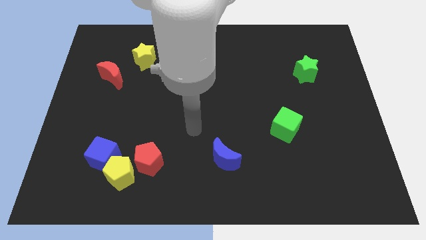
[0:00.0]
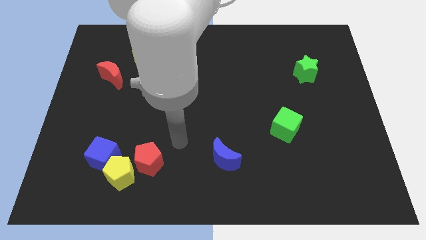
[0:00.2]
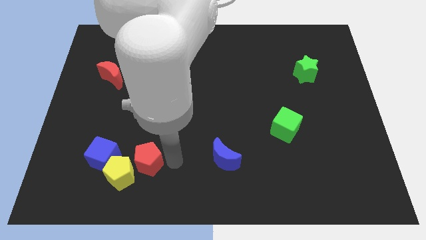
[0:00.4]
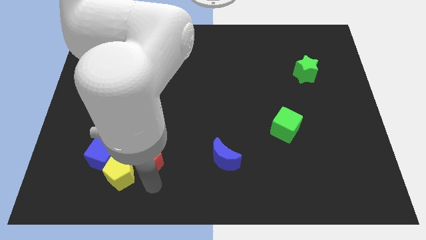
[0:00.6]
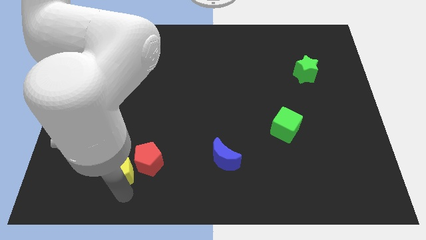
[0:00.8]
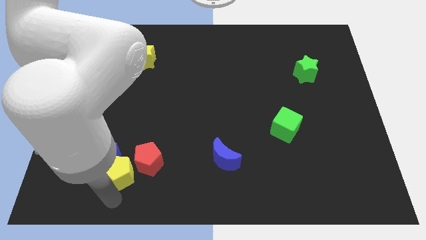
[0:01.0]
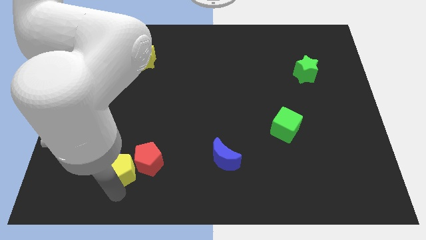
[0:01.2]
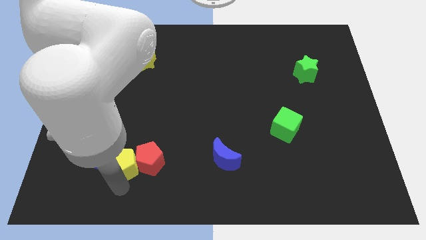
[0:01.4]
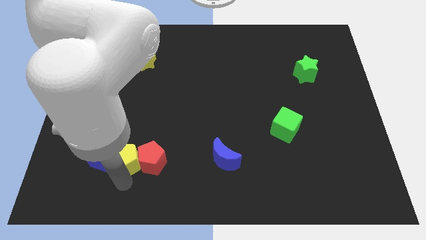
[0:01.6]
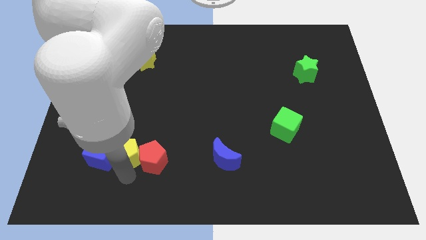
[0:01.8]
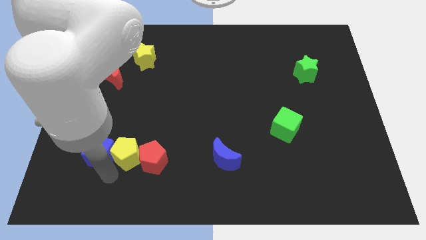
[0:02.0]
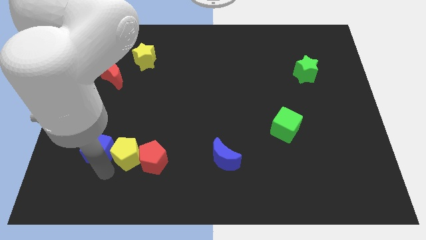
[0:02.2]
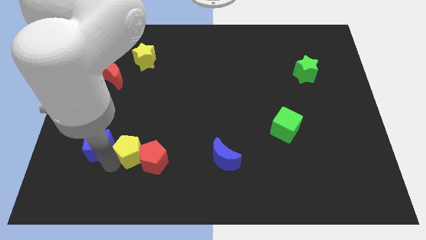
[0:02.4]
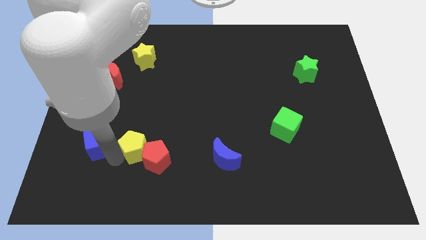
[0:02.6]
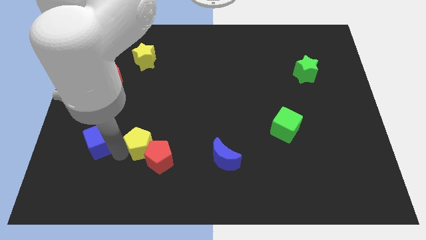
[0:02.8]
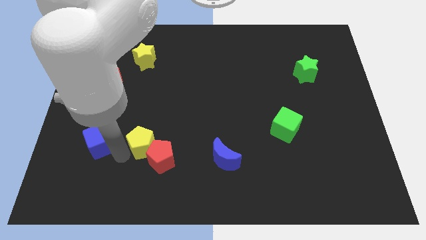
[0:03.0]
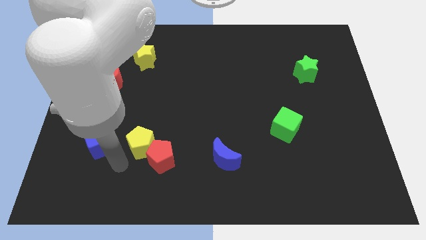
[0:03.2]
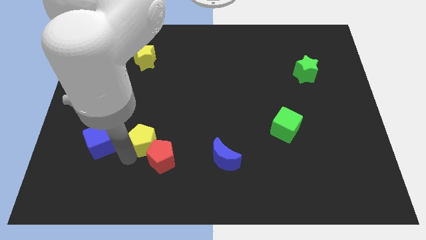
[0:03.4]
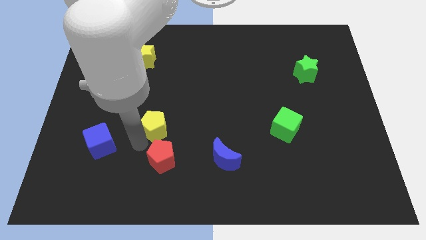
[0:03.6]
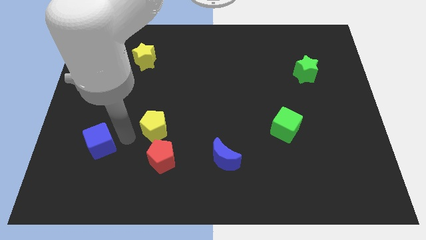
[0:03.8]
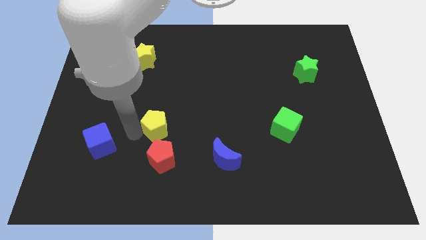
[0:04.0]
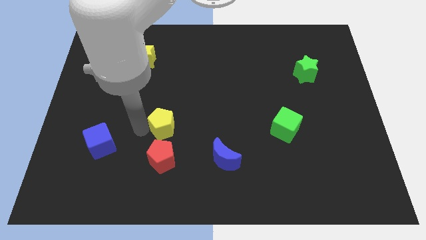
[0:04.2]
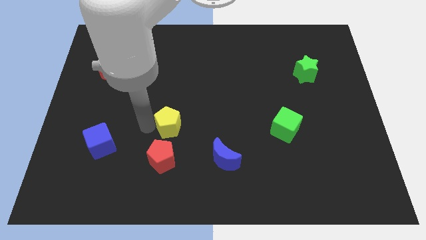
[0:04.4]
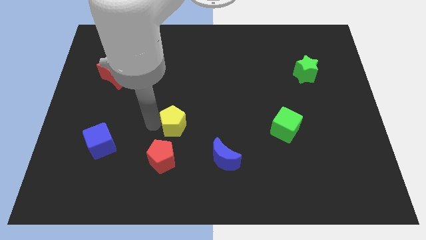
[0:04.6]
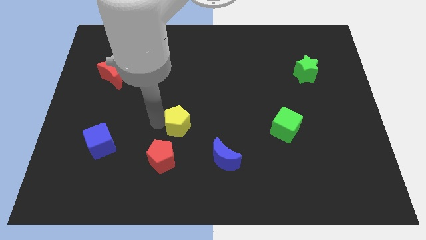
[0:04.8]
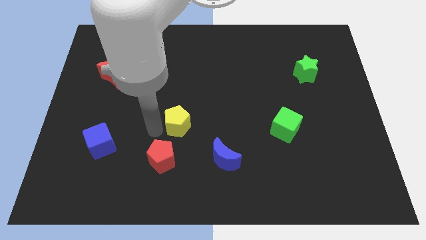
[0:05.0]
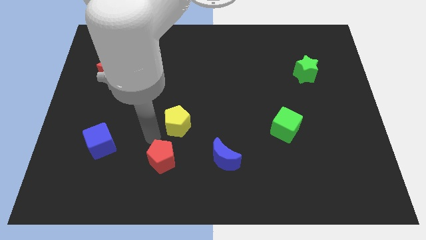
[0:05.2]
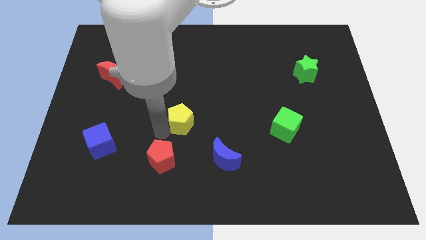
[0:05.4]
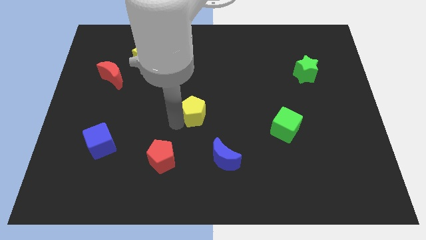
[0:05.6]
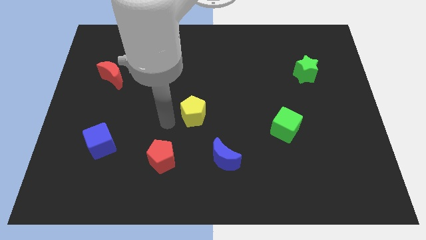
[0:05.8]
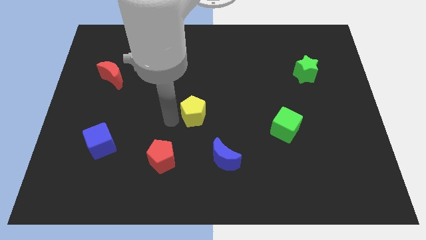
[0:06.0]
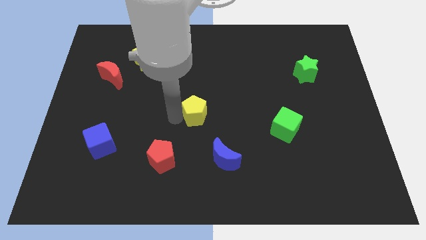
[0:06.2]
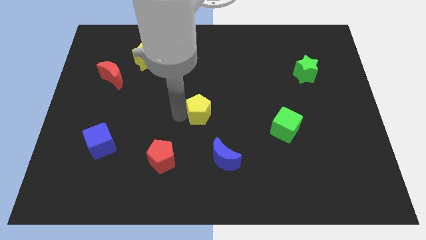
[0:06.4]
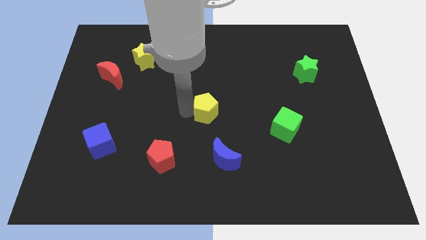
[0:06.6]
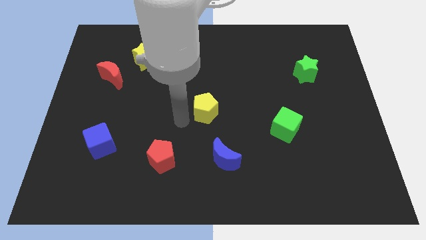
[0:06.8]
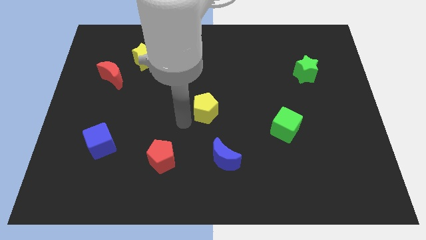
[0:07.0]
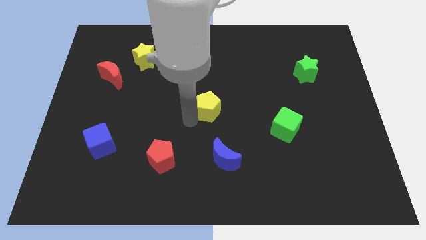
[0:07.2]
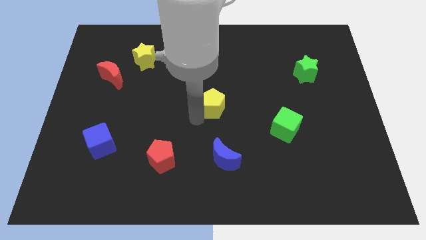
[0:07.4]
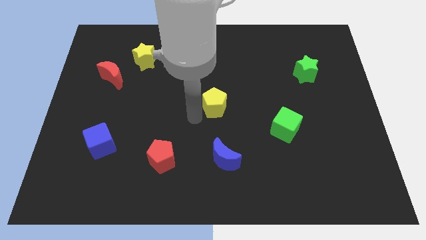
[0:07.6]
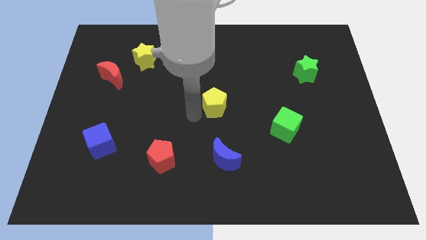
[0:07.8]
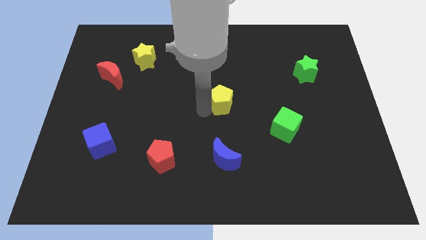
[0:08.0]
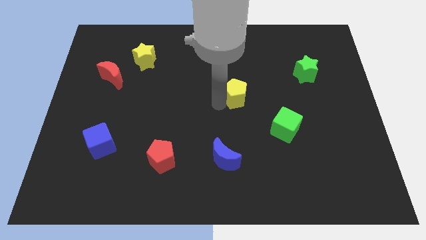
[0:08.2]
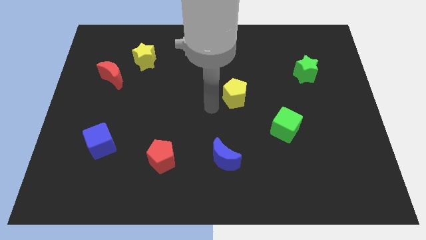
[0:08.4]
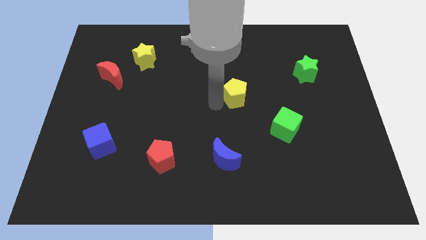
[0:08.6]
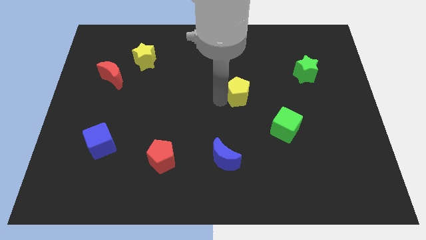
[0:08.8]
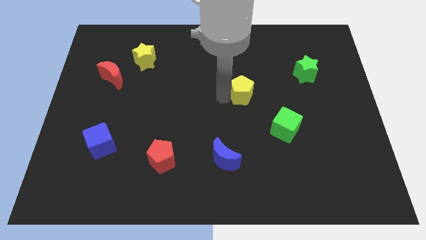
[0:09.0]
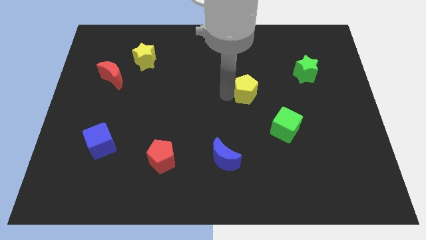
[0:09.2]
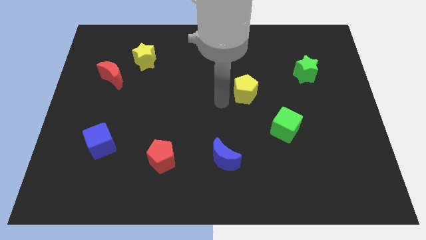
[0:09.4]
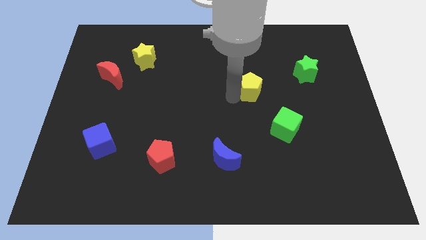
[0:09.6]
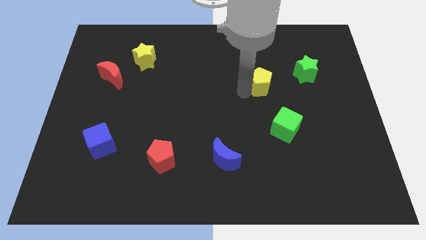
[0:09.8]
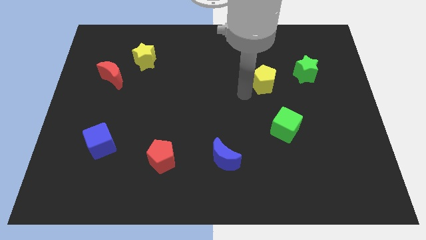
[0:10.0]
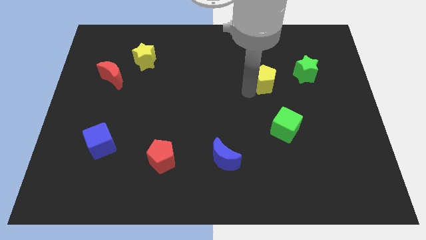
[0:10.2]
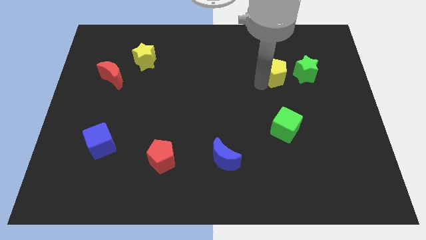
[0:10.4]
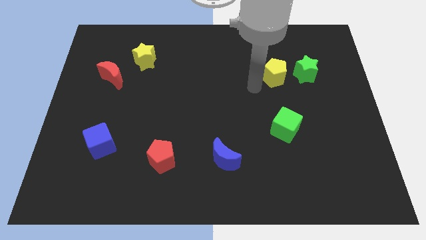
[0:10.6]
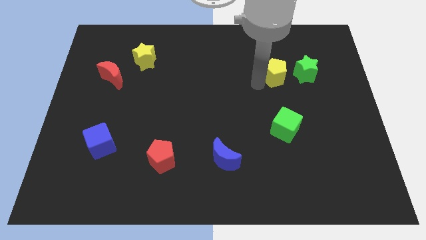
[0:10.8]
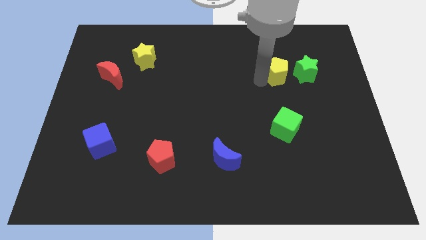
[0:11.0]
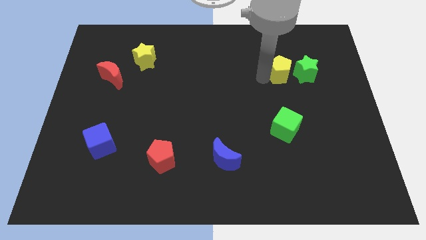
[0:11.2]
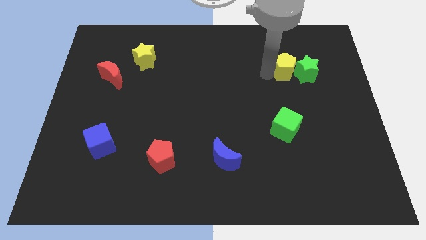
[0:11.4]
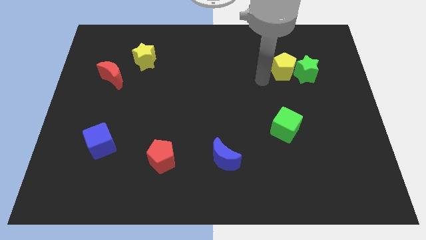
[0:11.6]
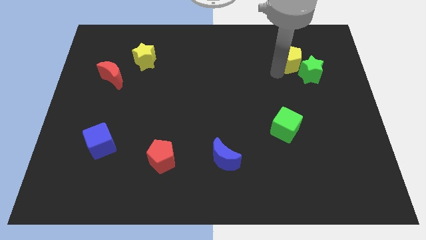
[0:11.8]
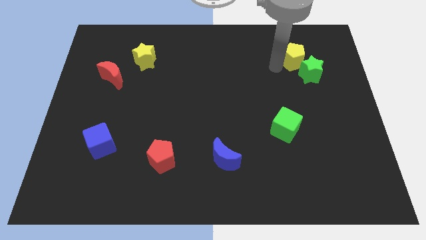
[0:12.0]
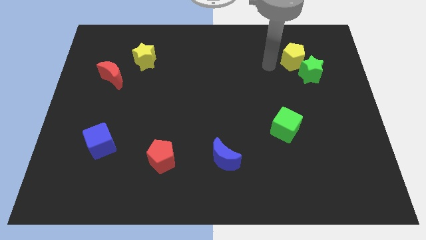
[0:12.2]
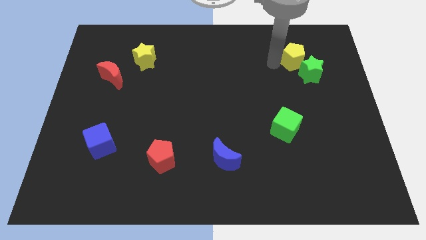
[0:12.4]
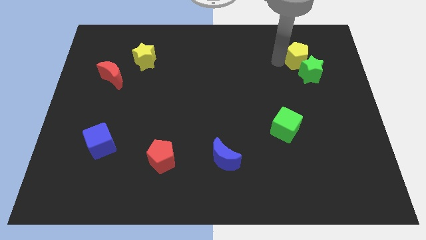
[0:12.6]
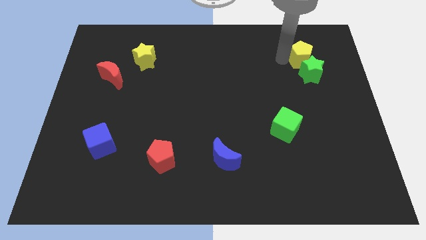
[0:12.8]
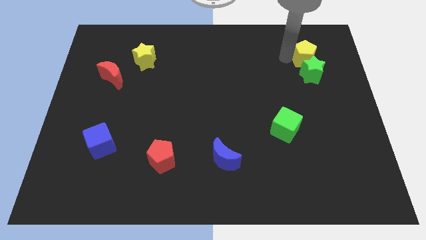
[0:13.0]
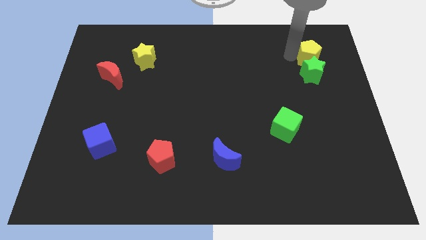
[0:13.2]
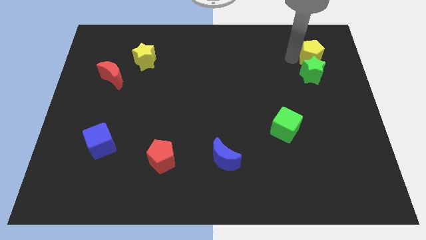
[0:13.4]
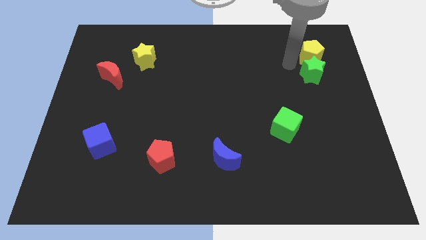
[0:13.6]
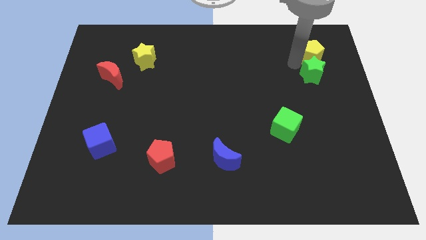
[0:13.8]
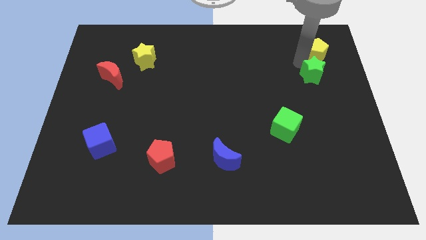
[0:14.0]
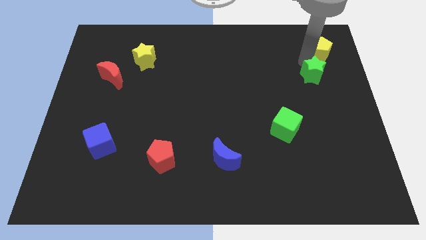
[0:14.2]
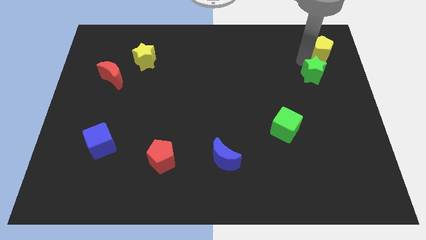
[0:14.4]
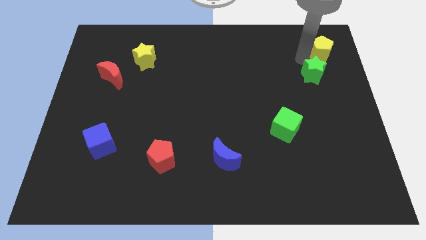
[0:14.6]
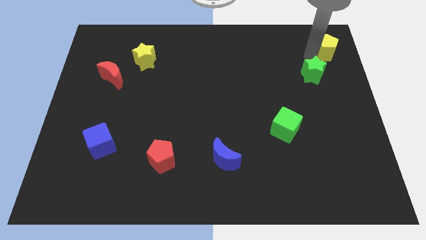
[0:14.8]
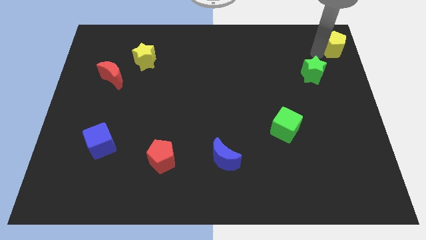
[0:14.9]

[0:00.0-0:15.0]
put the yellow pentagon to the top right corner
